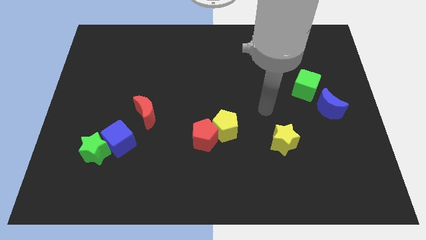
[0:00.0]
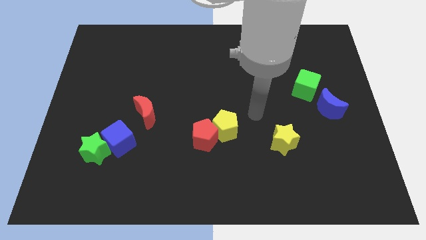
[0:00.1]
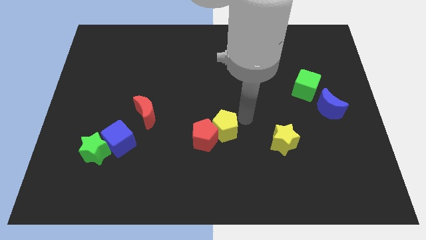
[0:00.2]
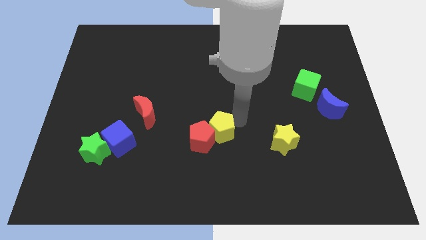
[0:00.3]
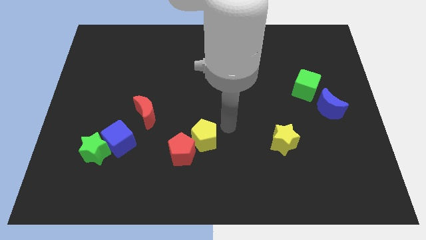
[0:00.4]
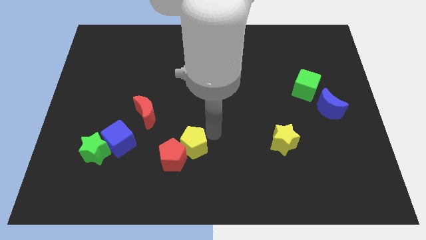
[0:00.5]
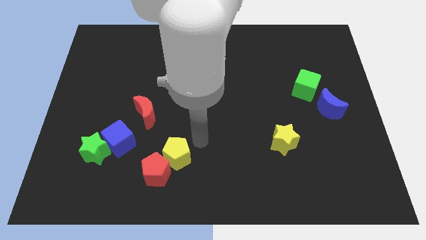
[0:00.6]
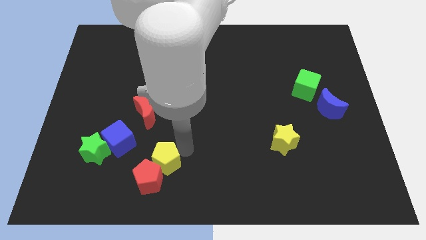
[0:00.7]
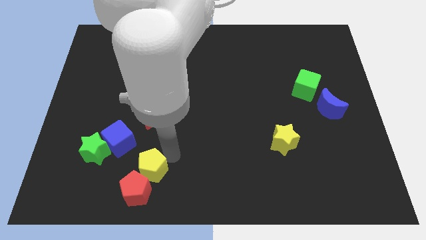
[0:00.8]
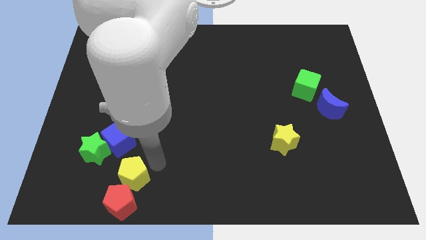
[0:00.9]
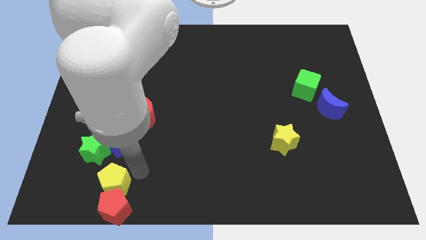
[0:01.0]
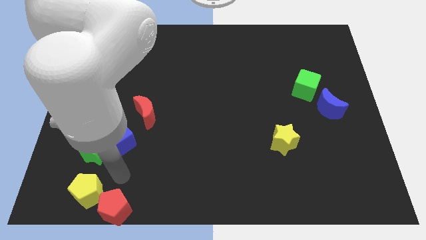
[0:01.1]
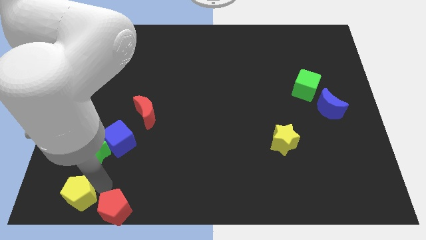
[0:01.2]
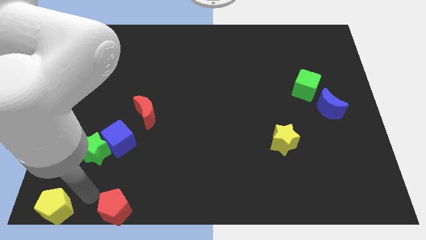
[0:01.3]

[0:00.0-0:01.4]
separate the red pentagon from the yellow pentagon

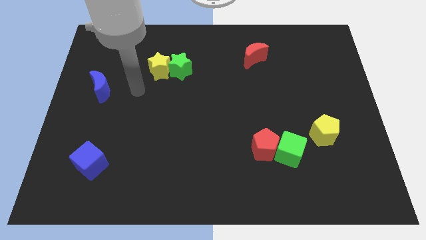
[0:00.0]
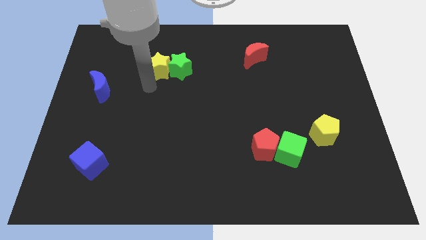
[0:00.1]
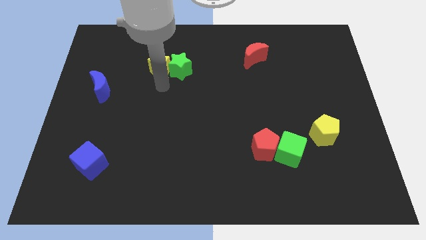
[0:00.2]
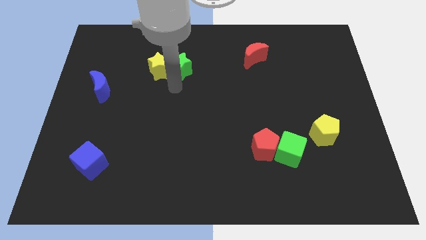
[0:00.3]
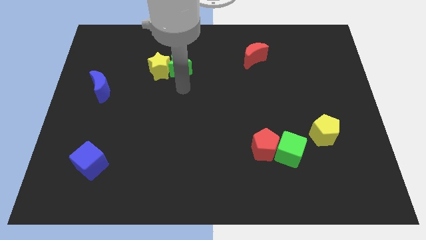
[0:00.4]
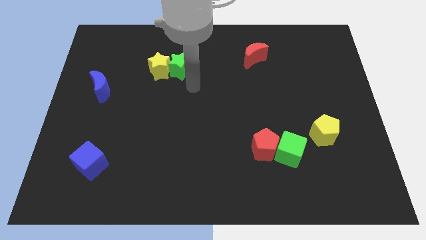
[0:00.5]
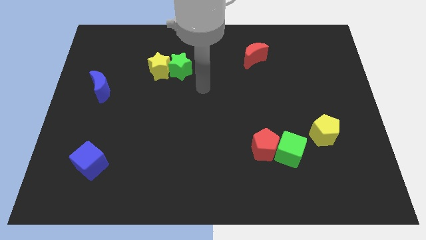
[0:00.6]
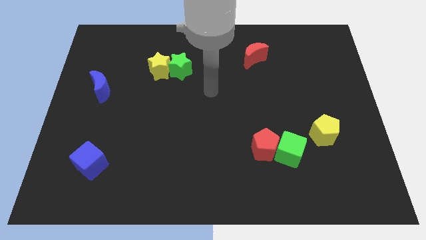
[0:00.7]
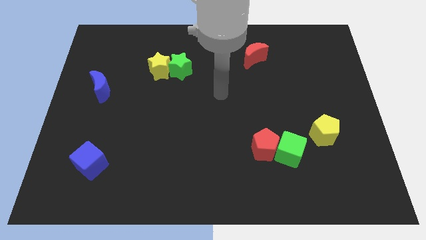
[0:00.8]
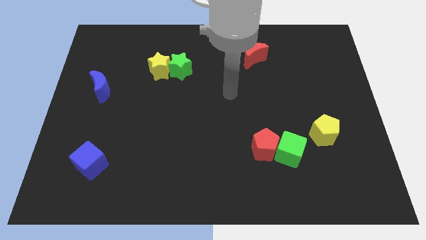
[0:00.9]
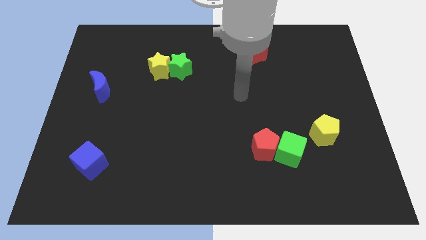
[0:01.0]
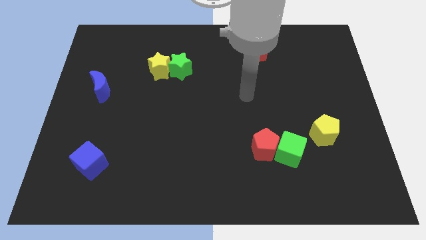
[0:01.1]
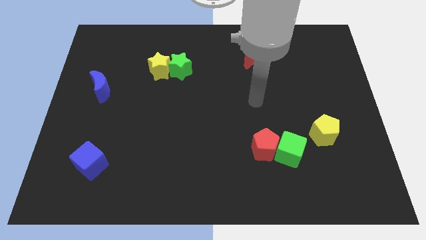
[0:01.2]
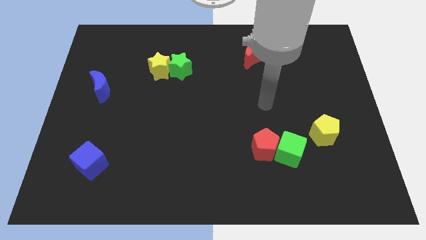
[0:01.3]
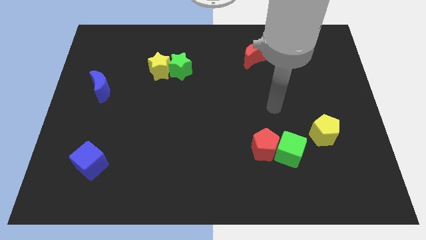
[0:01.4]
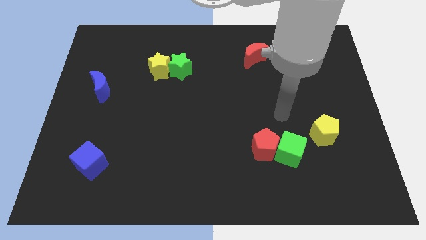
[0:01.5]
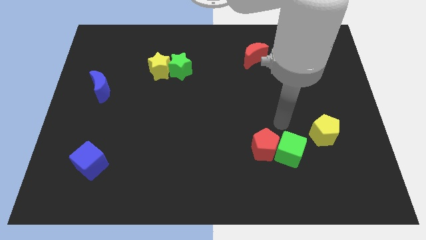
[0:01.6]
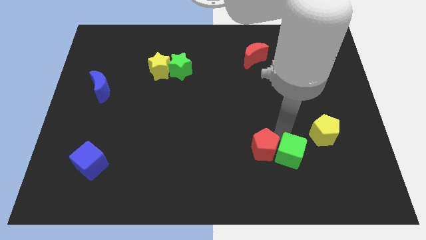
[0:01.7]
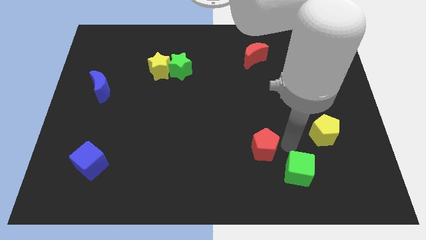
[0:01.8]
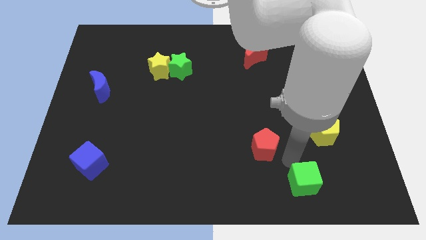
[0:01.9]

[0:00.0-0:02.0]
move the red pentagon away from the green cube

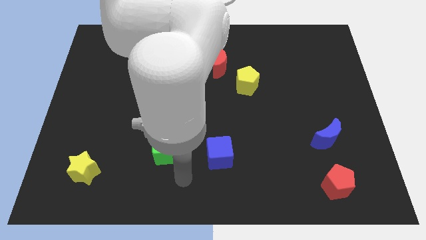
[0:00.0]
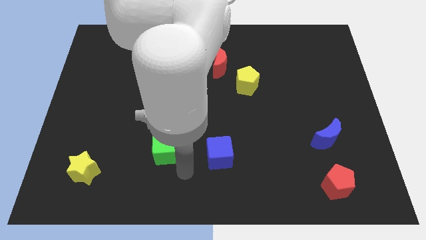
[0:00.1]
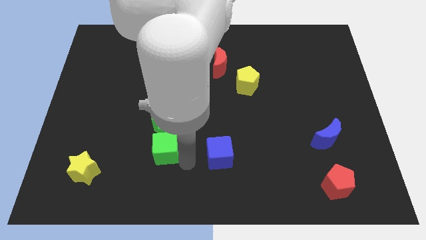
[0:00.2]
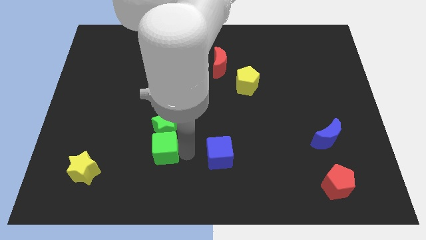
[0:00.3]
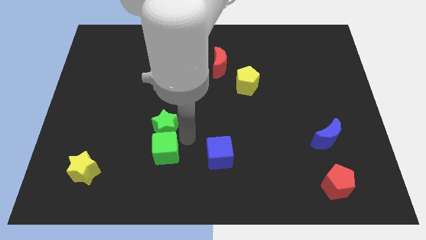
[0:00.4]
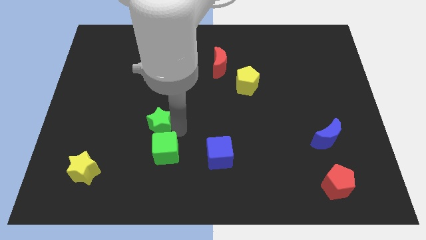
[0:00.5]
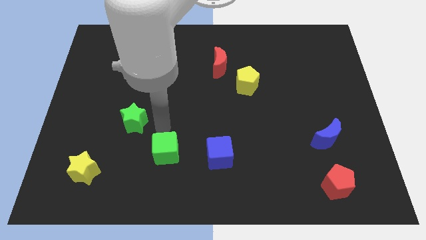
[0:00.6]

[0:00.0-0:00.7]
separate the green cube from the green star

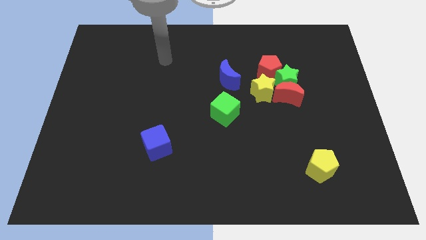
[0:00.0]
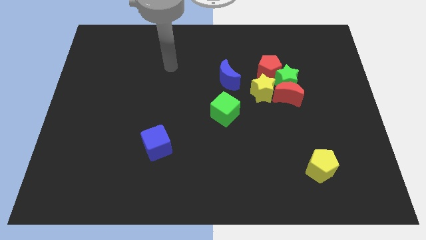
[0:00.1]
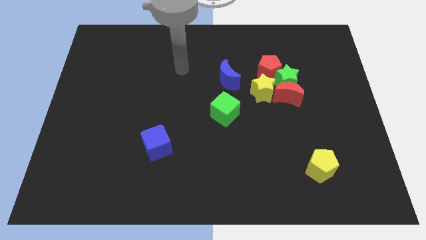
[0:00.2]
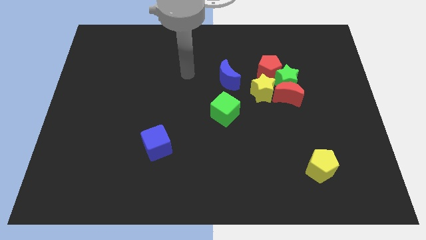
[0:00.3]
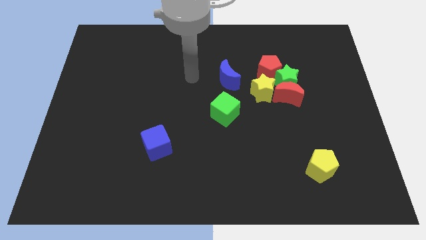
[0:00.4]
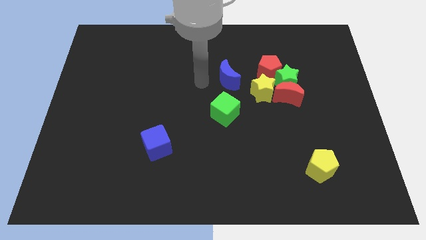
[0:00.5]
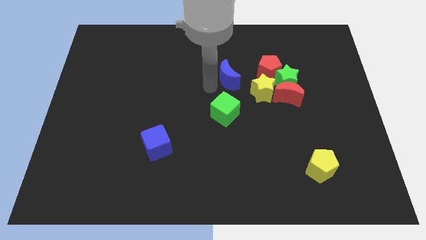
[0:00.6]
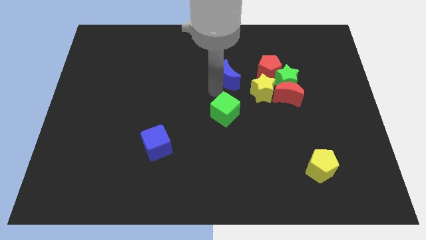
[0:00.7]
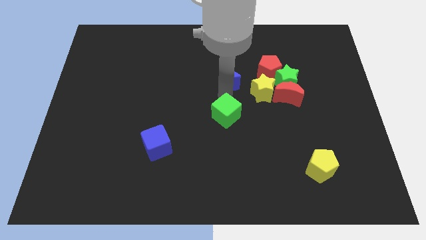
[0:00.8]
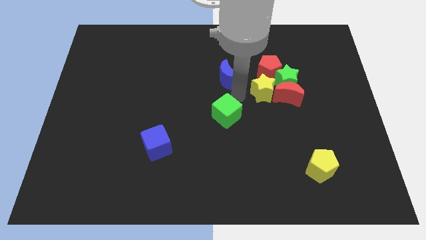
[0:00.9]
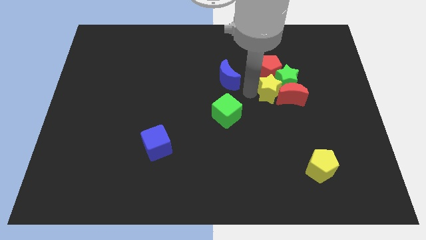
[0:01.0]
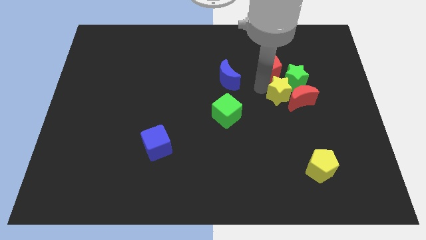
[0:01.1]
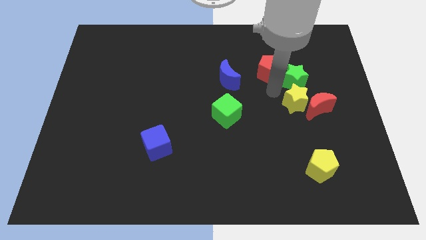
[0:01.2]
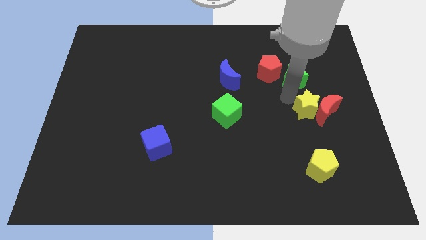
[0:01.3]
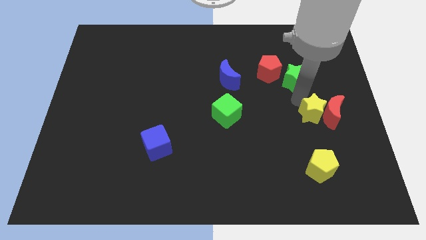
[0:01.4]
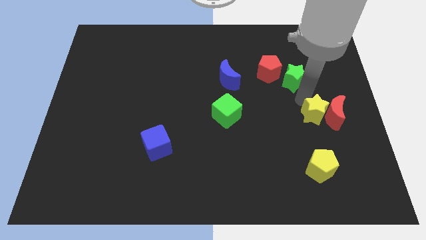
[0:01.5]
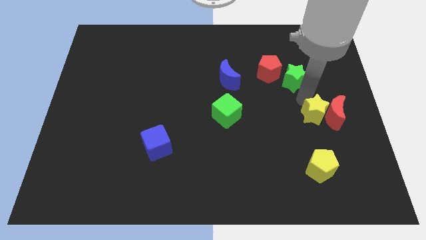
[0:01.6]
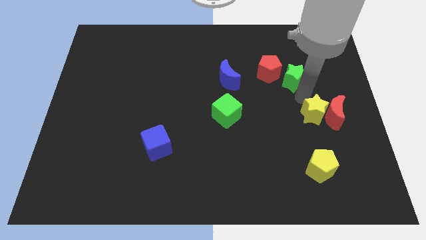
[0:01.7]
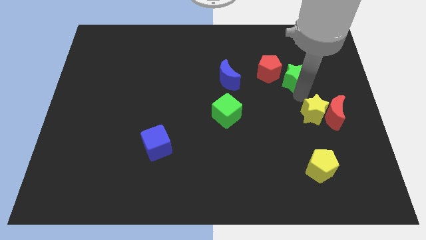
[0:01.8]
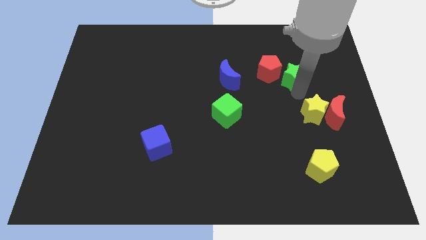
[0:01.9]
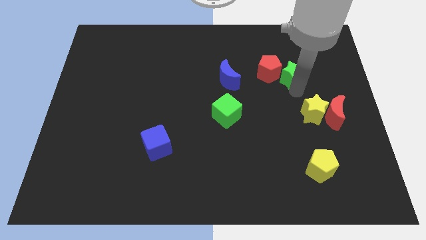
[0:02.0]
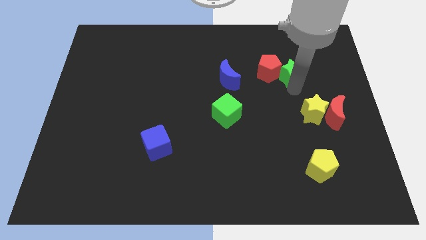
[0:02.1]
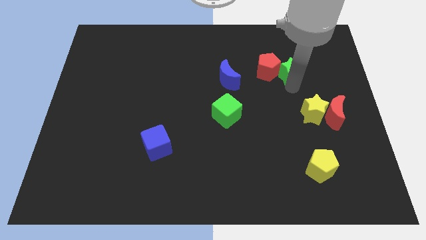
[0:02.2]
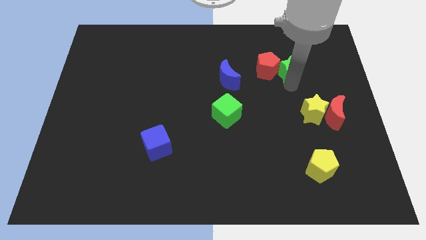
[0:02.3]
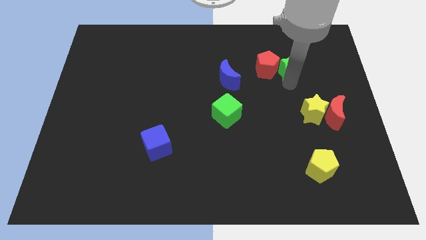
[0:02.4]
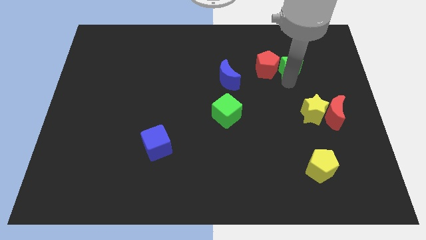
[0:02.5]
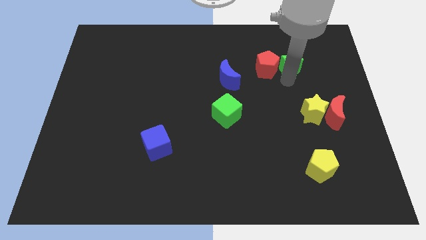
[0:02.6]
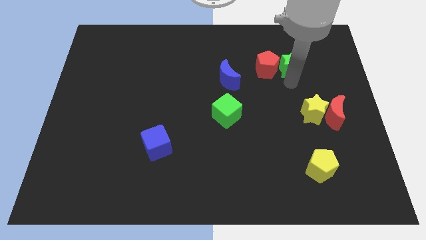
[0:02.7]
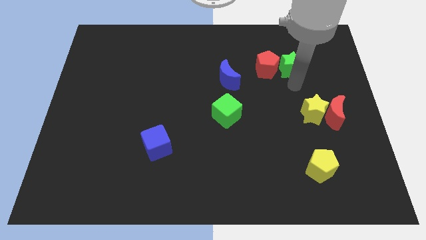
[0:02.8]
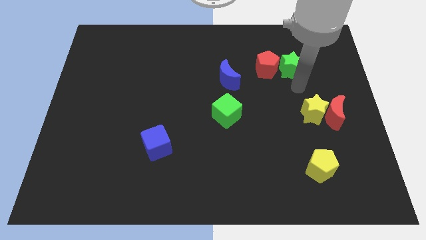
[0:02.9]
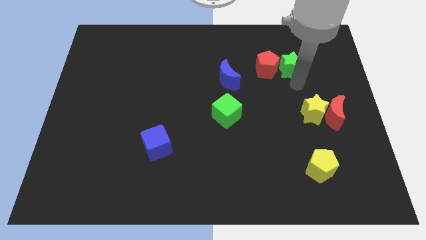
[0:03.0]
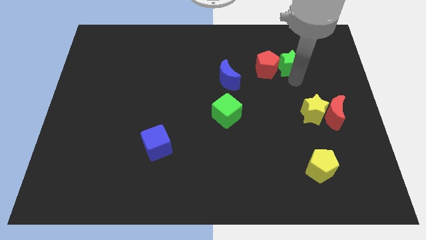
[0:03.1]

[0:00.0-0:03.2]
move the green star away from the red moon, red pentagon, and yellow star

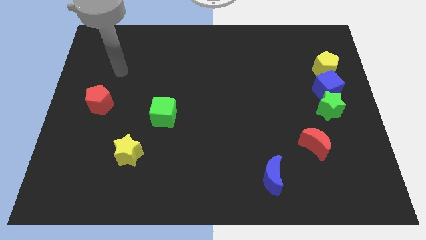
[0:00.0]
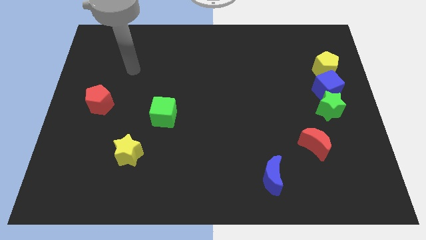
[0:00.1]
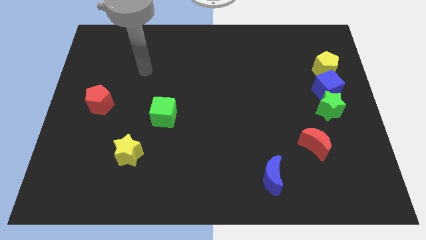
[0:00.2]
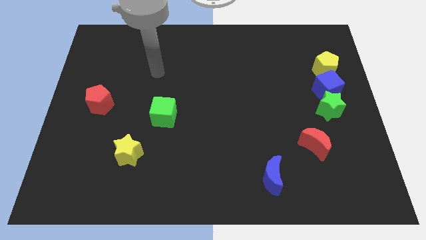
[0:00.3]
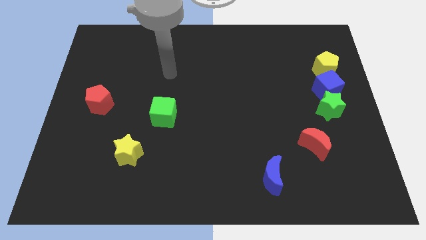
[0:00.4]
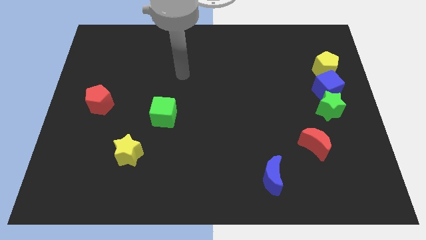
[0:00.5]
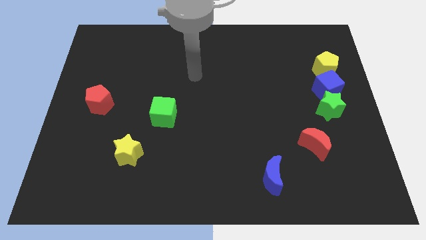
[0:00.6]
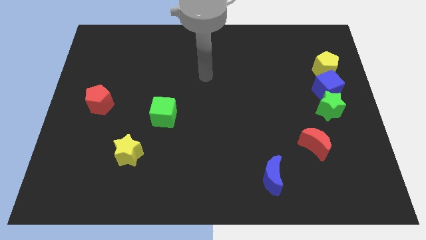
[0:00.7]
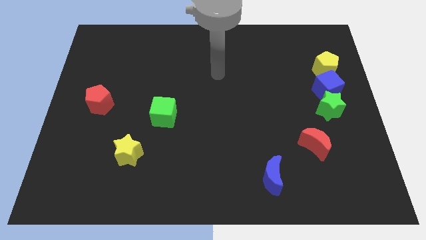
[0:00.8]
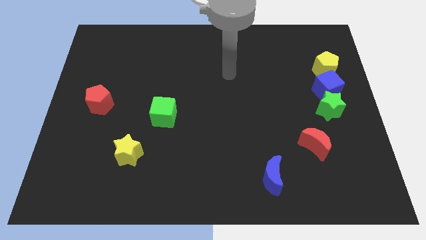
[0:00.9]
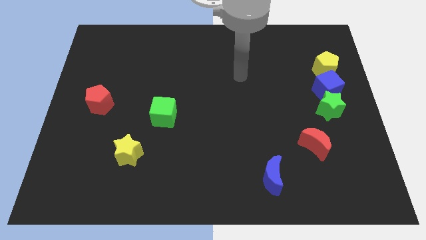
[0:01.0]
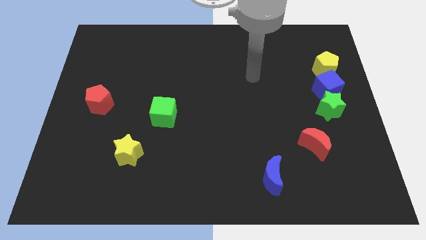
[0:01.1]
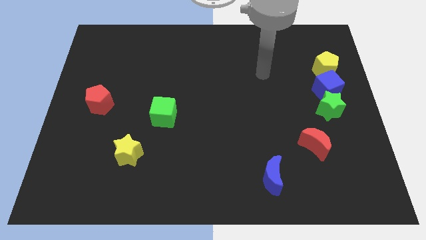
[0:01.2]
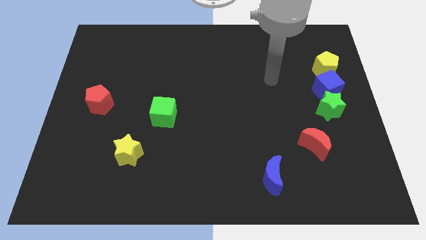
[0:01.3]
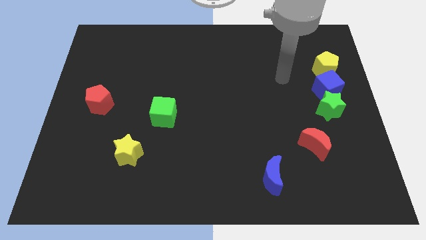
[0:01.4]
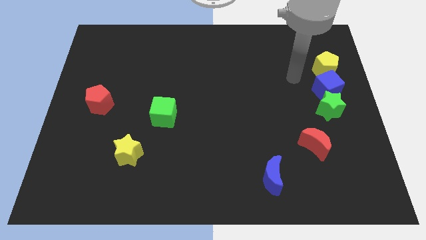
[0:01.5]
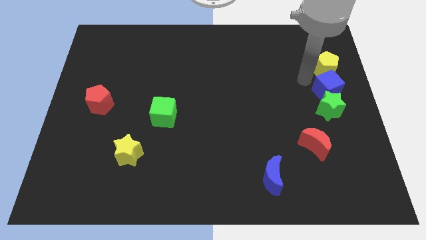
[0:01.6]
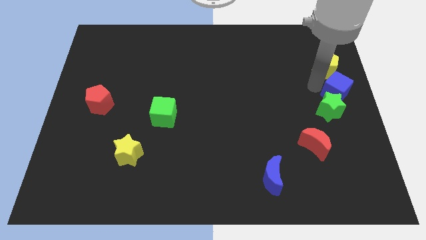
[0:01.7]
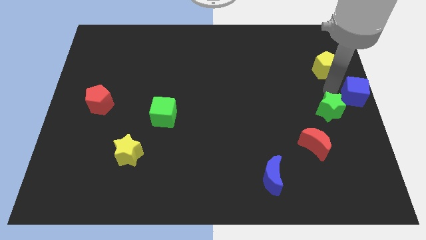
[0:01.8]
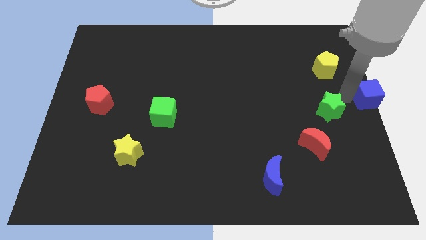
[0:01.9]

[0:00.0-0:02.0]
move the green star away from the blue cube
